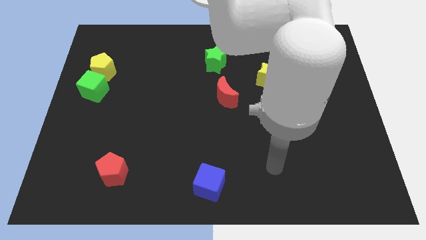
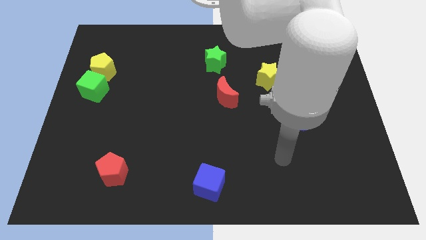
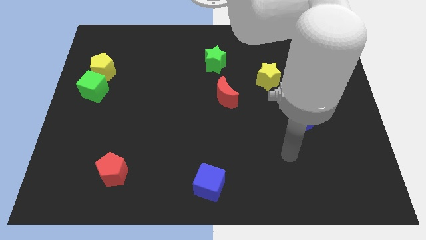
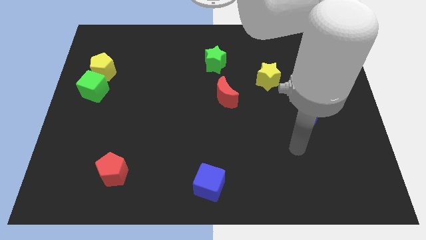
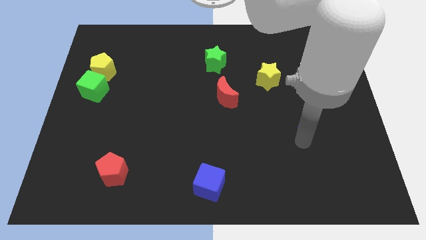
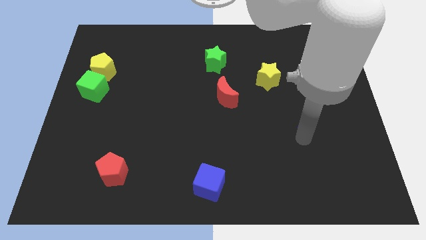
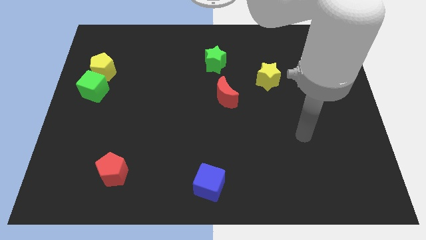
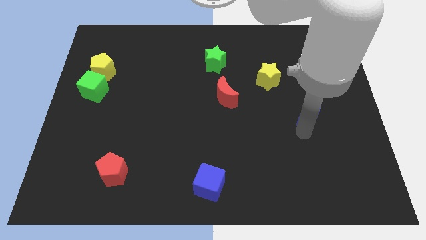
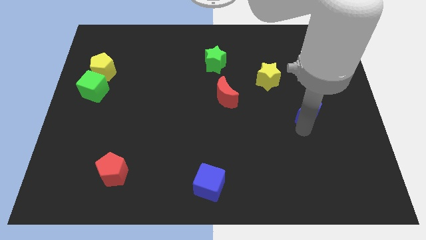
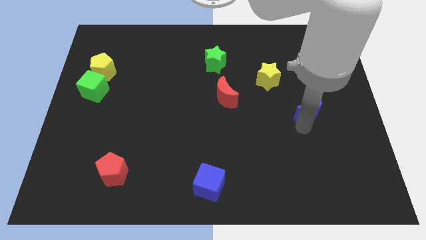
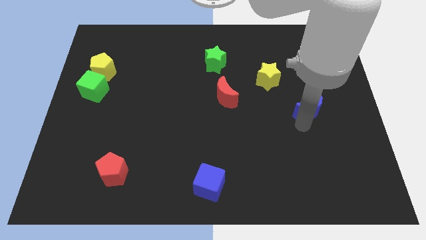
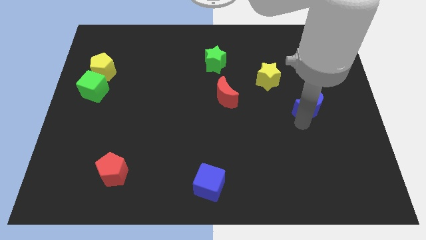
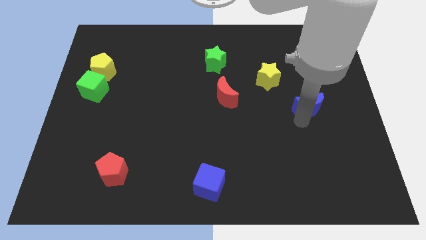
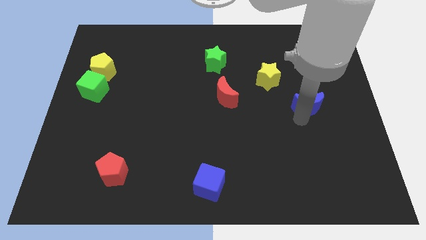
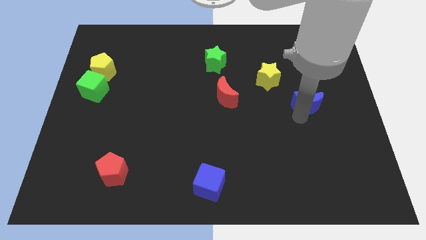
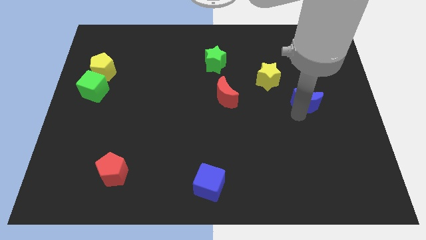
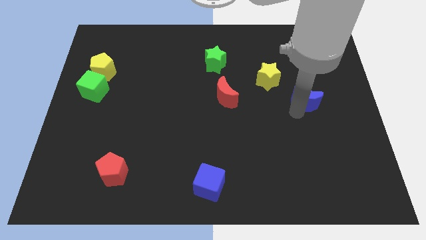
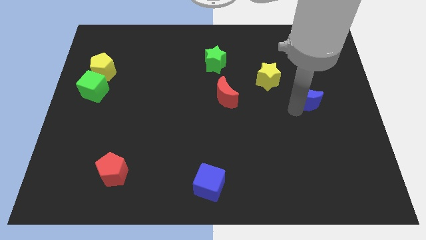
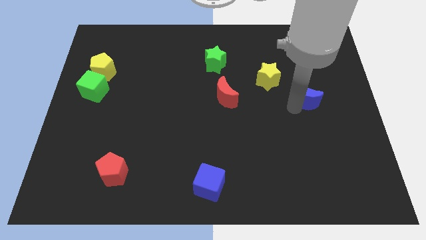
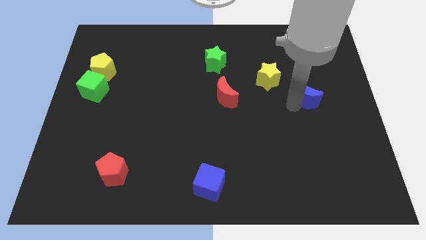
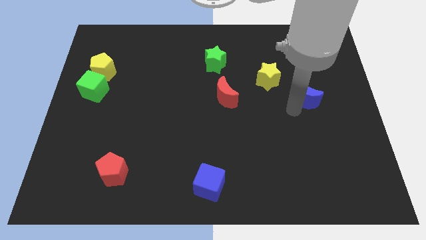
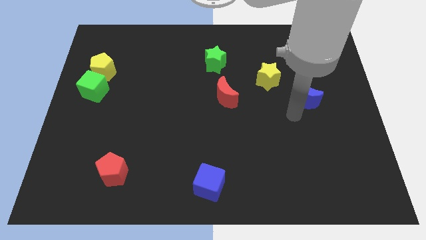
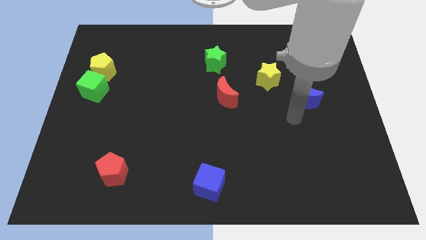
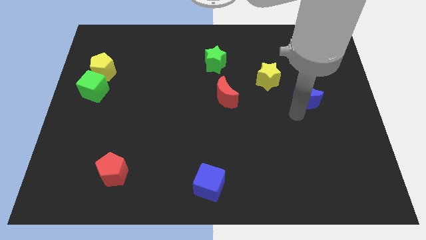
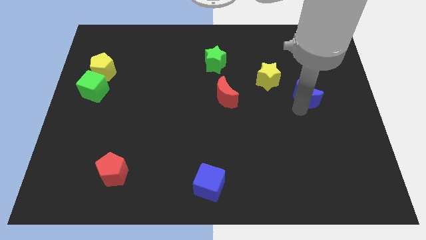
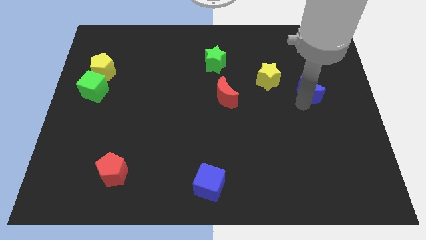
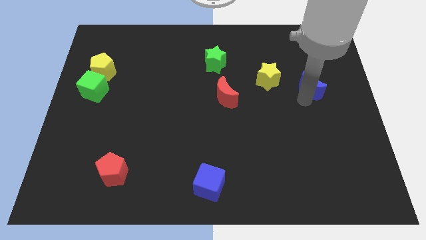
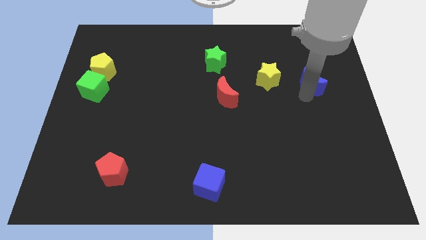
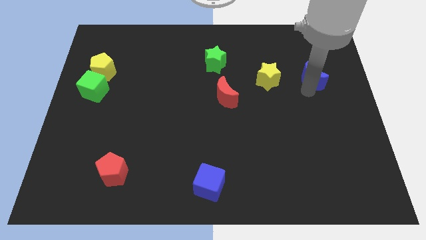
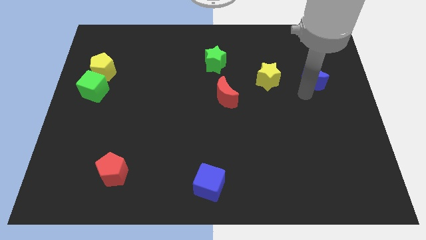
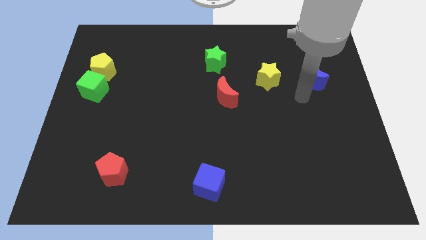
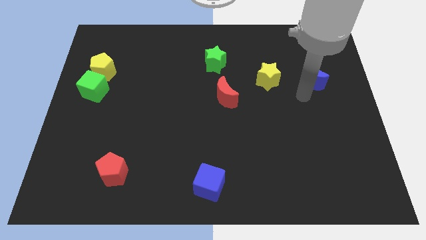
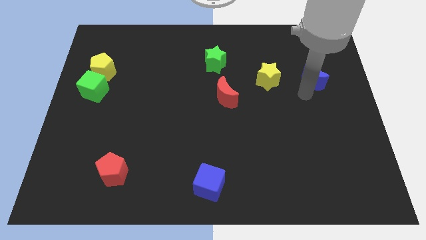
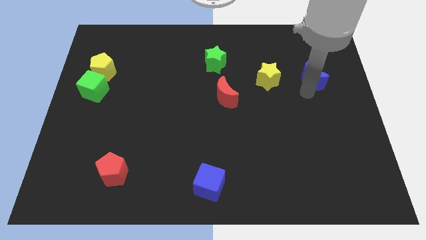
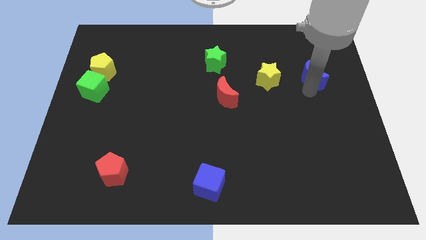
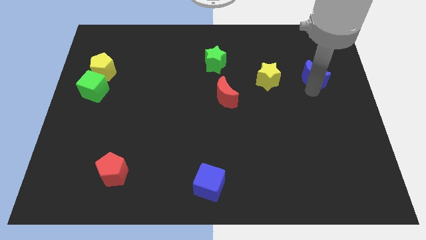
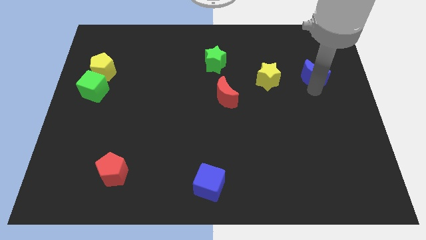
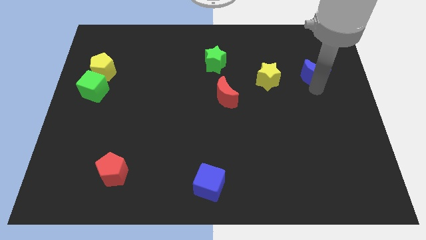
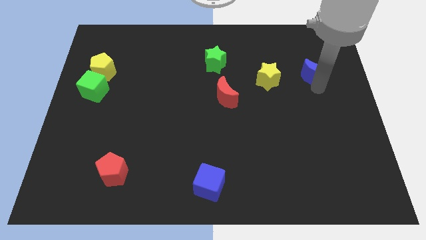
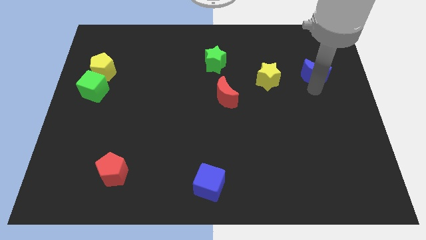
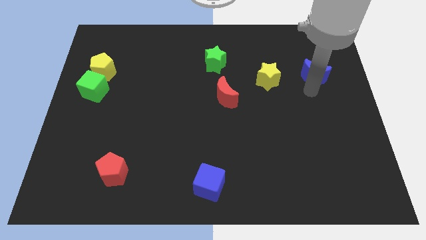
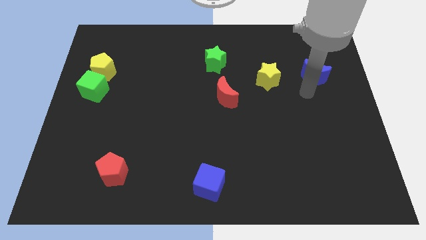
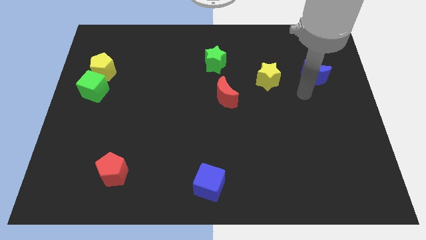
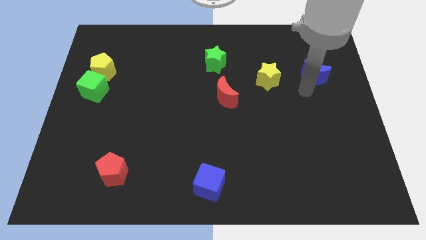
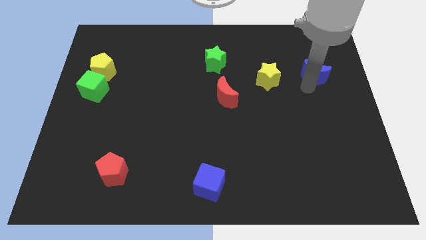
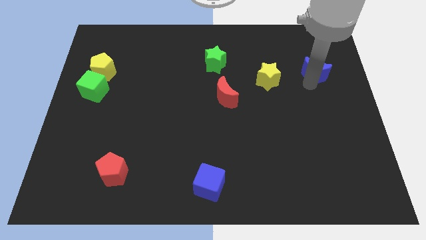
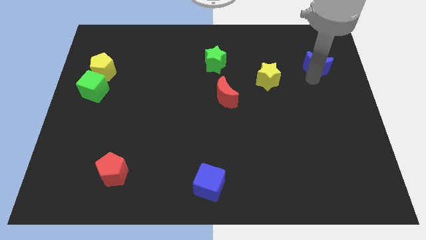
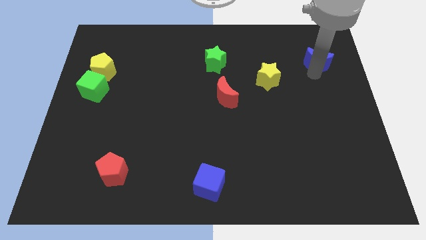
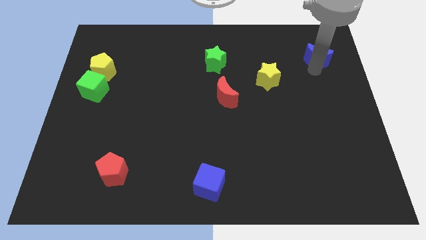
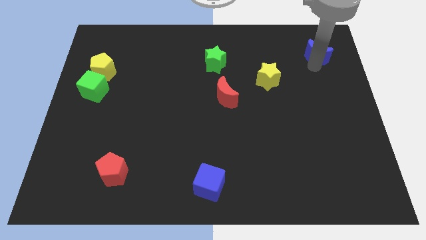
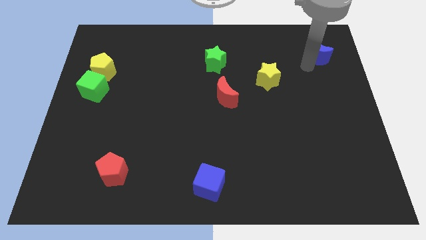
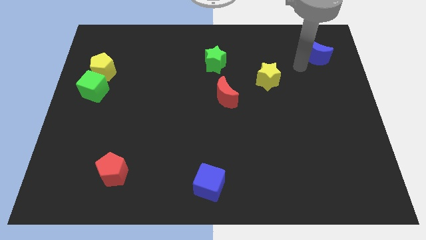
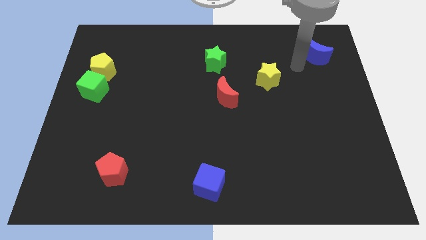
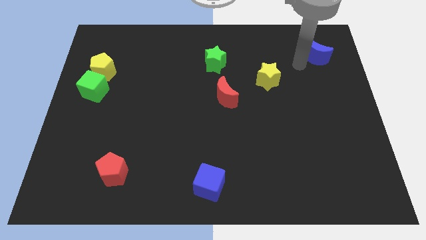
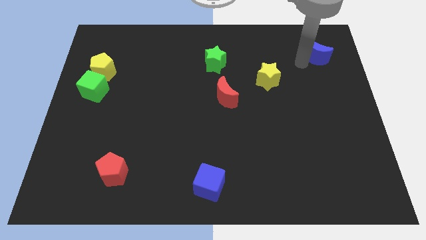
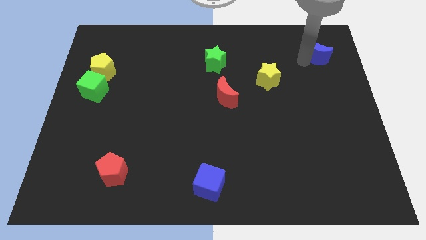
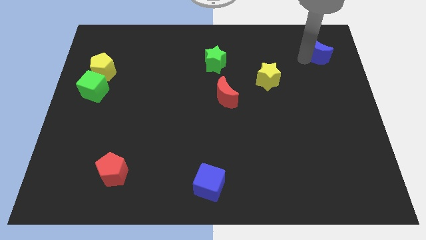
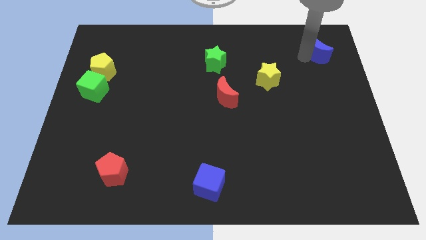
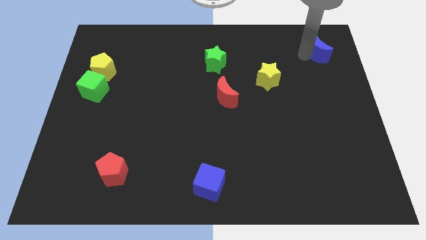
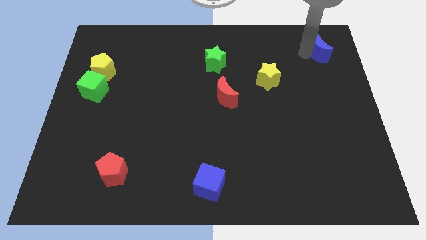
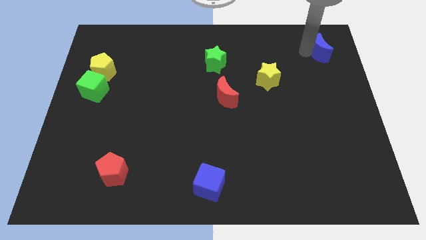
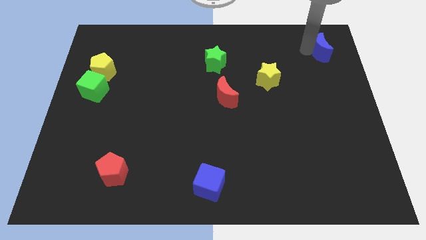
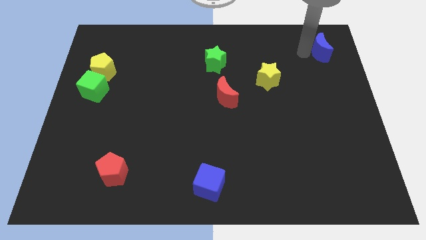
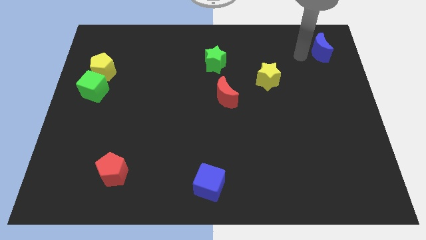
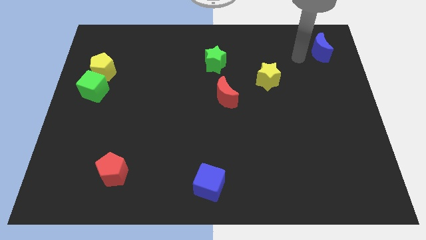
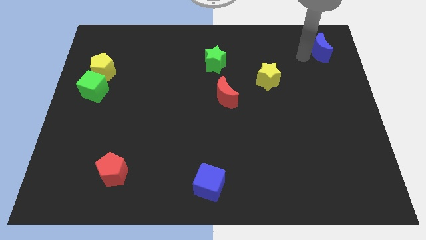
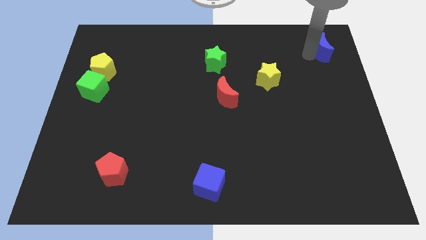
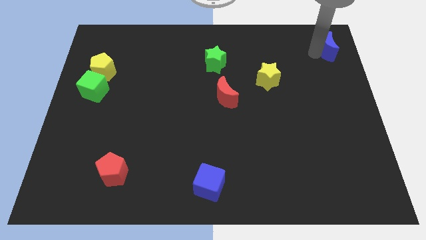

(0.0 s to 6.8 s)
push the blue moon to the top right corner

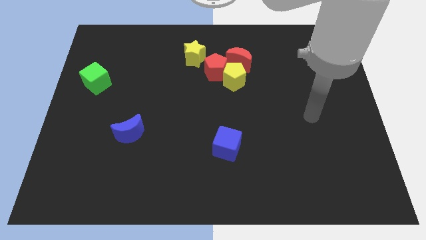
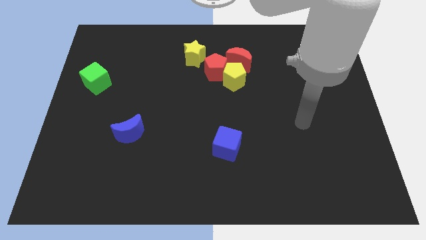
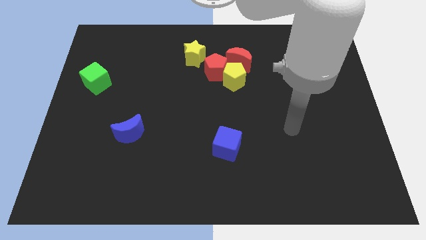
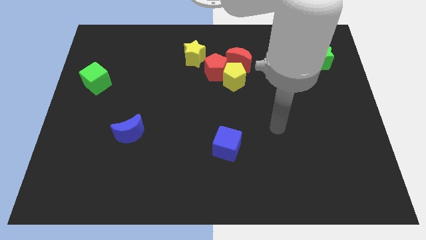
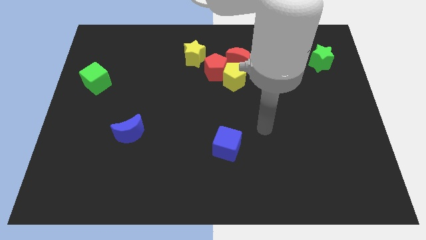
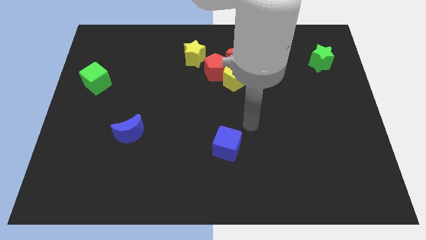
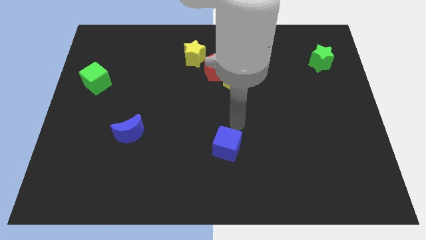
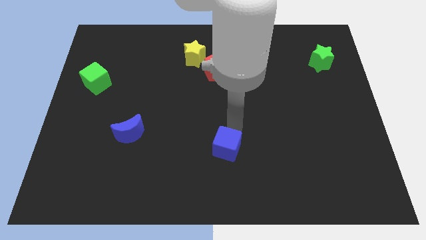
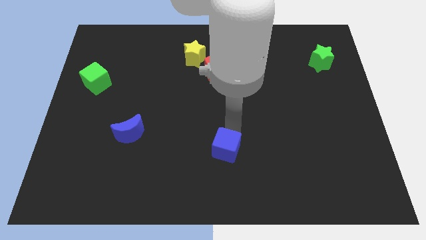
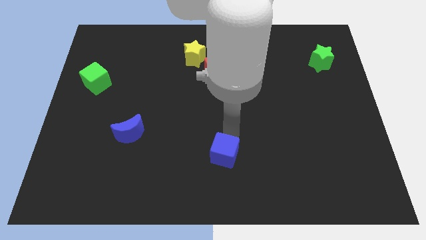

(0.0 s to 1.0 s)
push the blue cube to the bottom side
